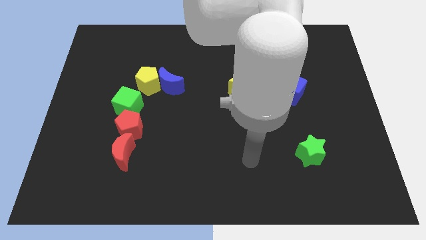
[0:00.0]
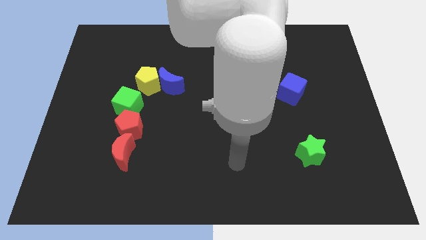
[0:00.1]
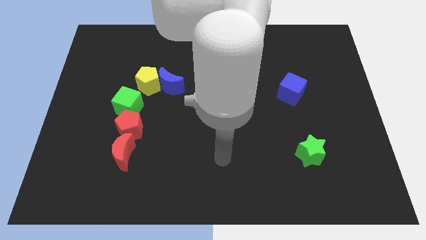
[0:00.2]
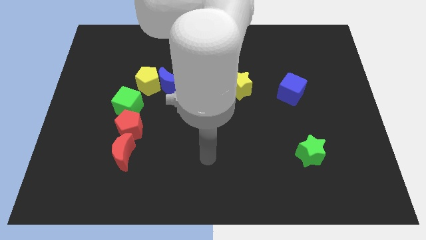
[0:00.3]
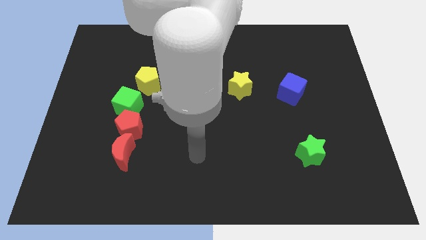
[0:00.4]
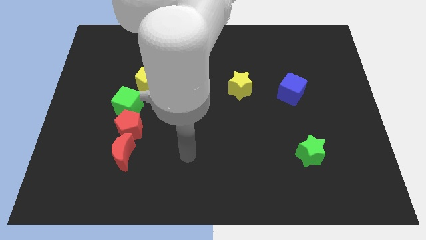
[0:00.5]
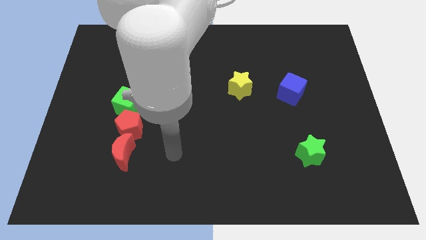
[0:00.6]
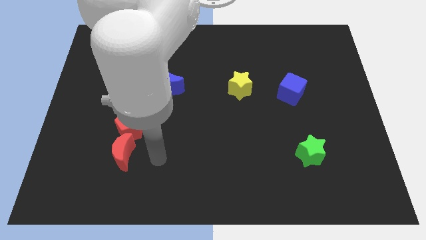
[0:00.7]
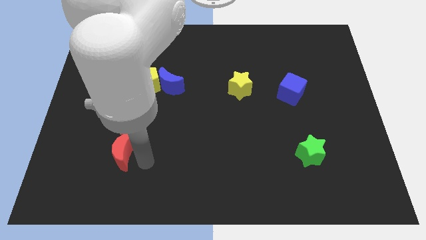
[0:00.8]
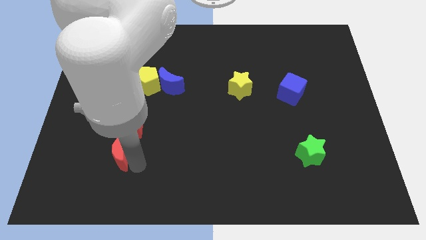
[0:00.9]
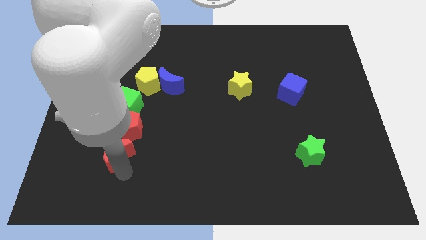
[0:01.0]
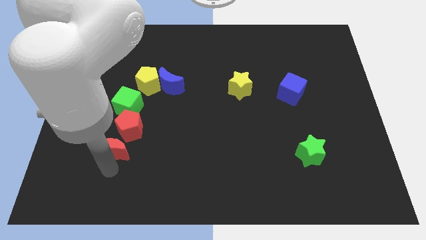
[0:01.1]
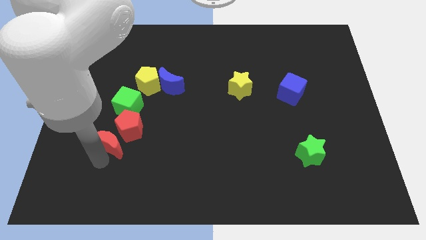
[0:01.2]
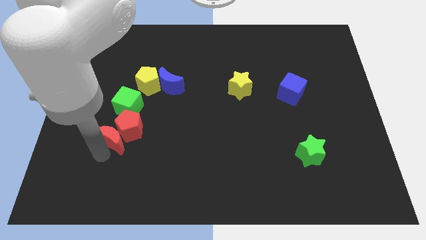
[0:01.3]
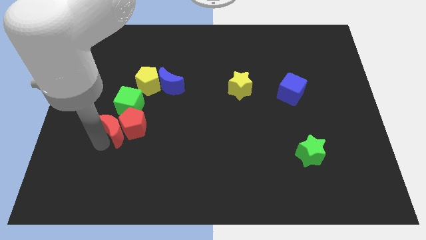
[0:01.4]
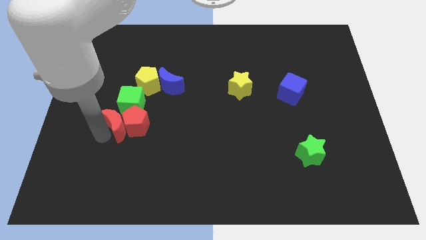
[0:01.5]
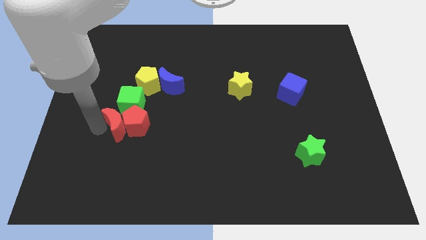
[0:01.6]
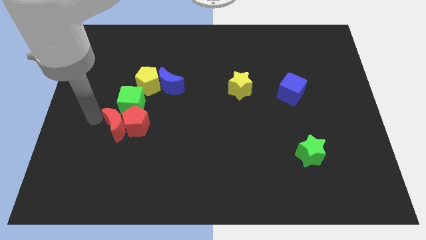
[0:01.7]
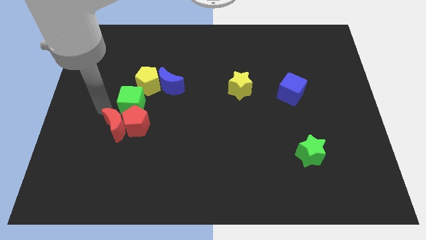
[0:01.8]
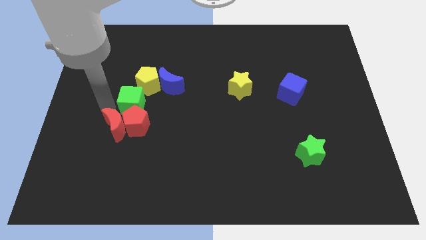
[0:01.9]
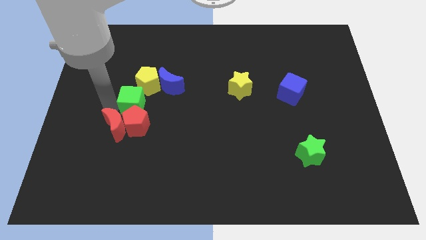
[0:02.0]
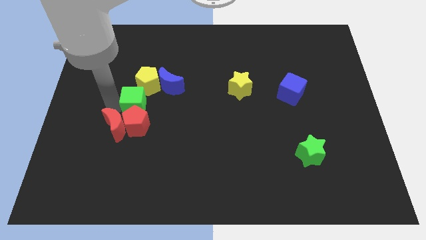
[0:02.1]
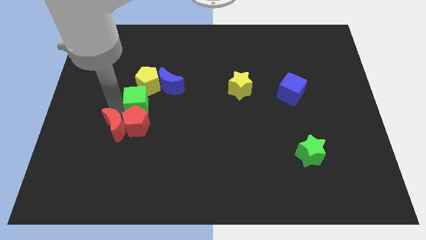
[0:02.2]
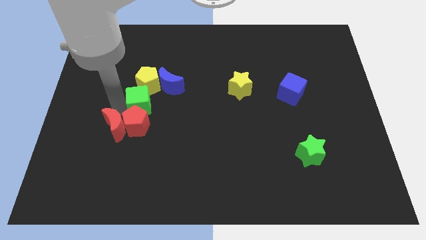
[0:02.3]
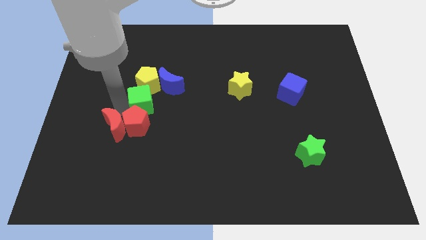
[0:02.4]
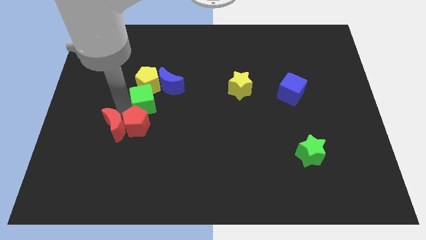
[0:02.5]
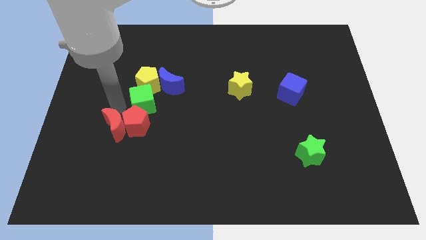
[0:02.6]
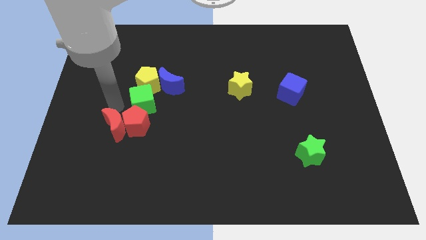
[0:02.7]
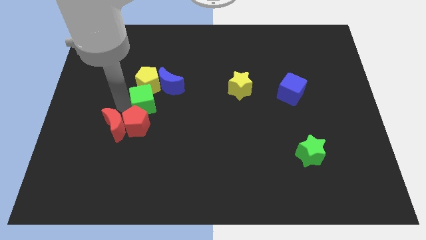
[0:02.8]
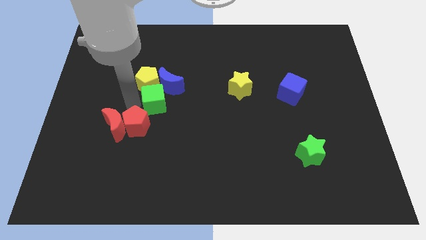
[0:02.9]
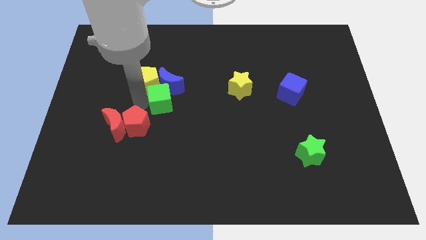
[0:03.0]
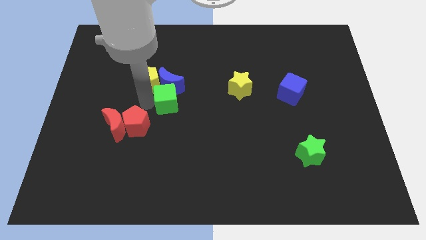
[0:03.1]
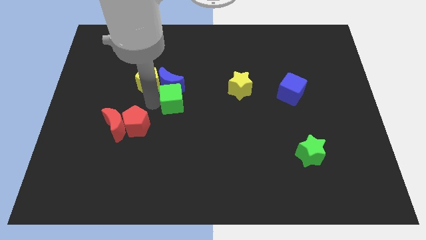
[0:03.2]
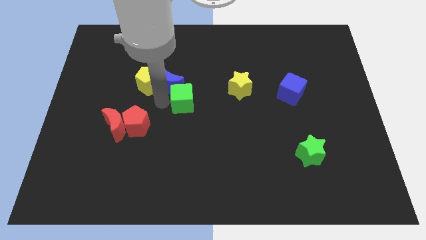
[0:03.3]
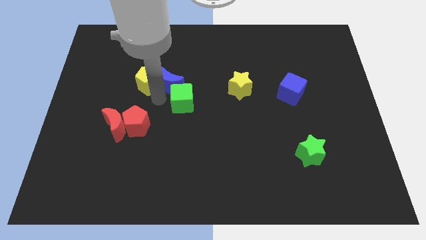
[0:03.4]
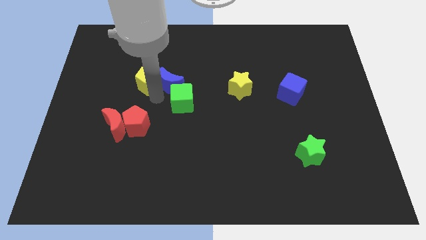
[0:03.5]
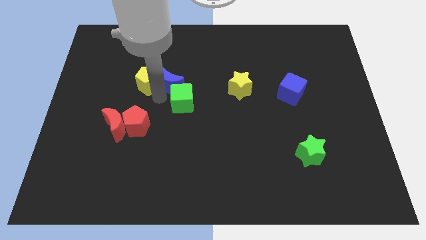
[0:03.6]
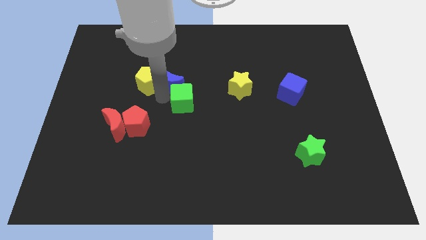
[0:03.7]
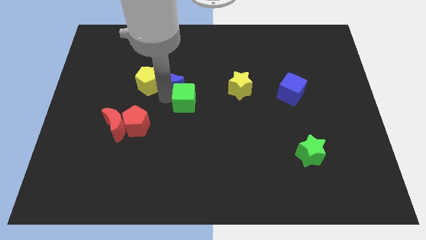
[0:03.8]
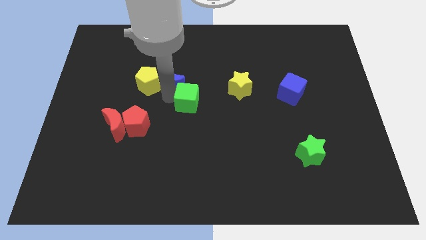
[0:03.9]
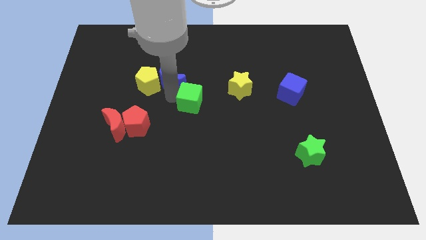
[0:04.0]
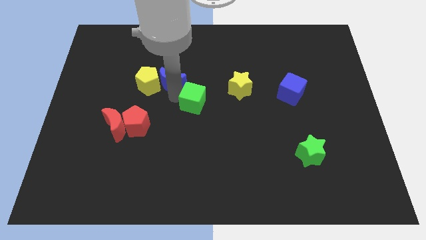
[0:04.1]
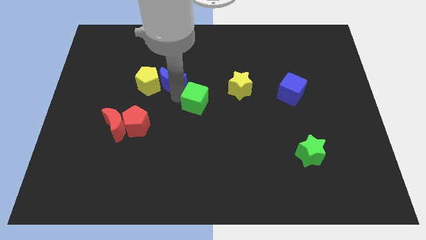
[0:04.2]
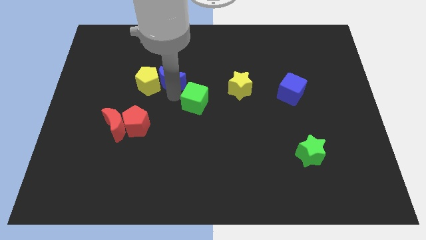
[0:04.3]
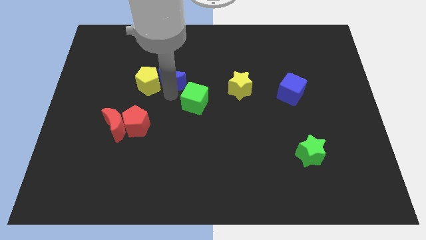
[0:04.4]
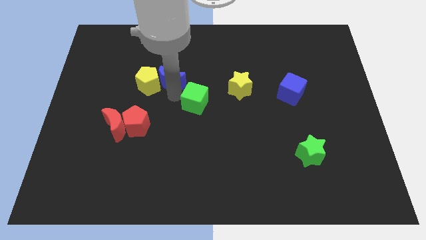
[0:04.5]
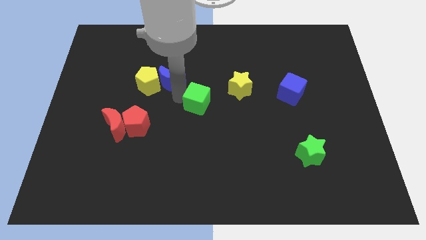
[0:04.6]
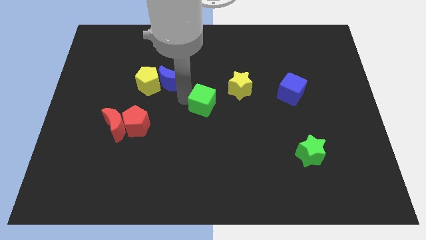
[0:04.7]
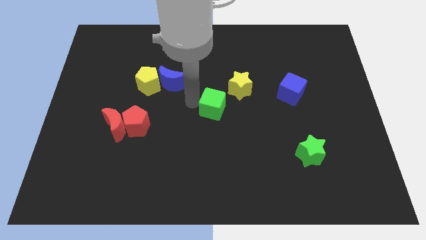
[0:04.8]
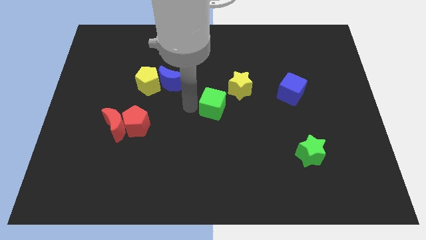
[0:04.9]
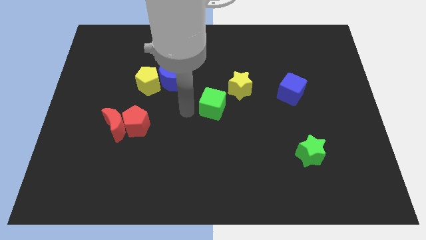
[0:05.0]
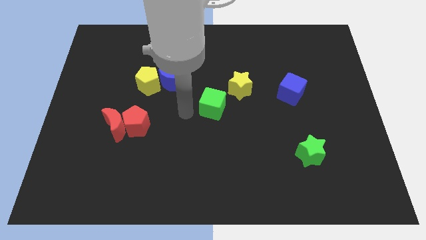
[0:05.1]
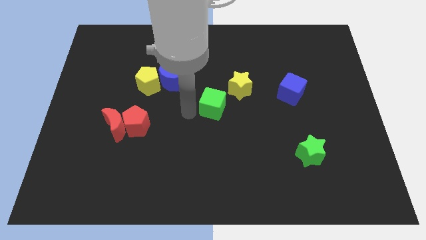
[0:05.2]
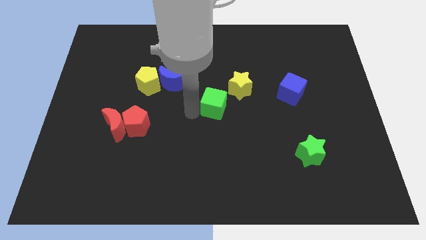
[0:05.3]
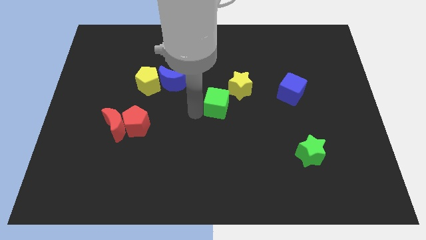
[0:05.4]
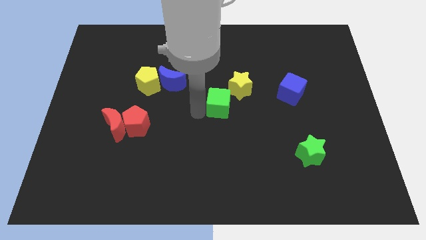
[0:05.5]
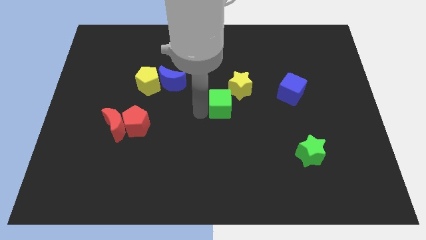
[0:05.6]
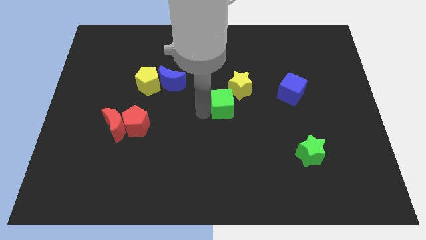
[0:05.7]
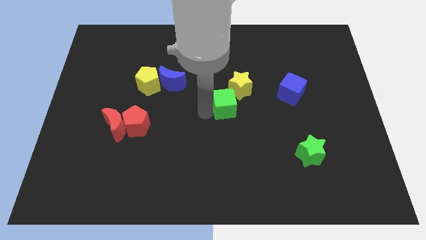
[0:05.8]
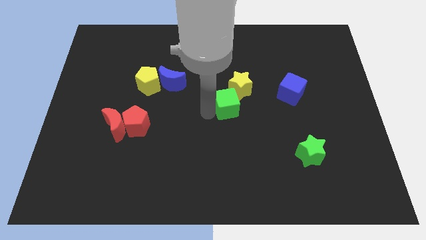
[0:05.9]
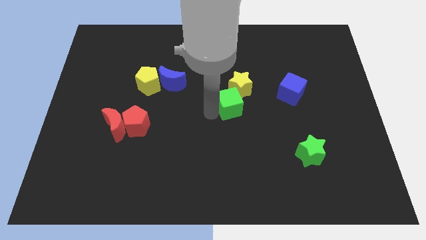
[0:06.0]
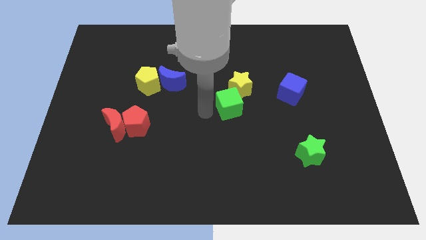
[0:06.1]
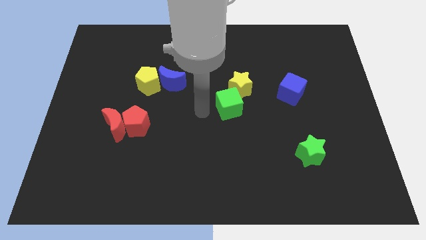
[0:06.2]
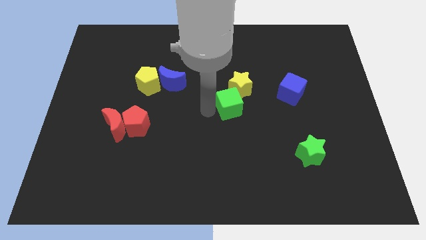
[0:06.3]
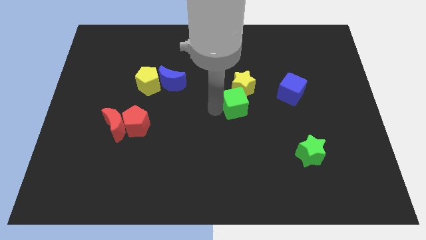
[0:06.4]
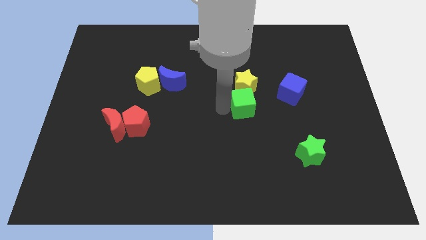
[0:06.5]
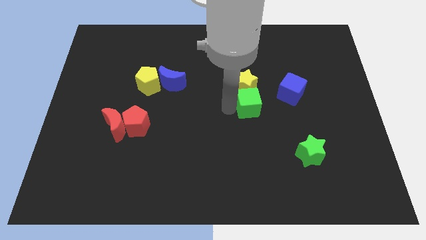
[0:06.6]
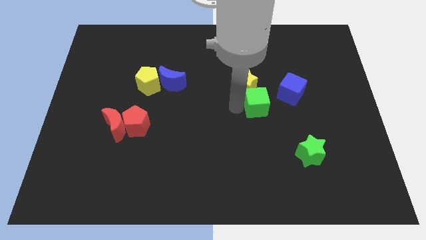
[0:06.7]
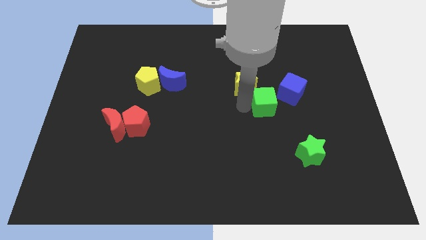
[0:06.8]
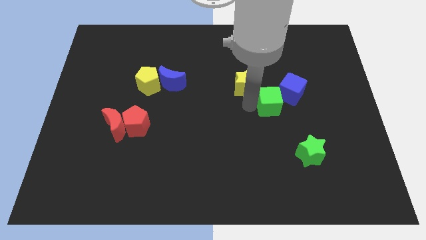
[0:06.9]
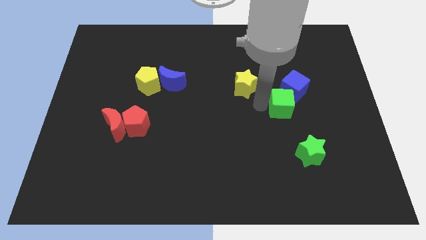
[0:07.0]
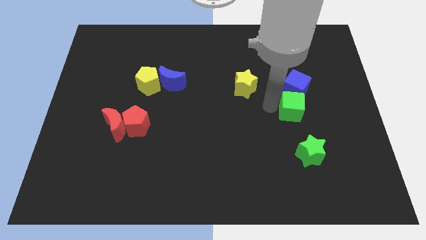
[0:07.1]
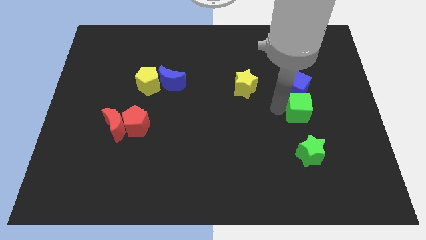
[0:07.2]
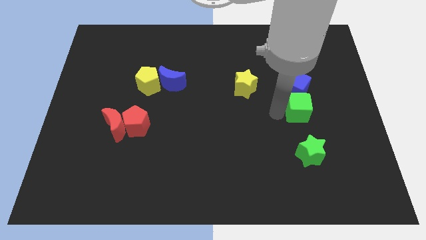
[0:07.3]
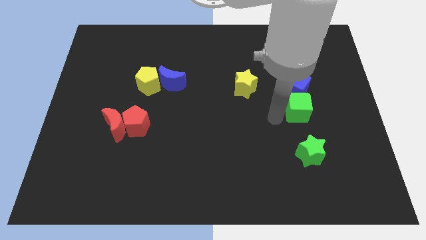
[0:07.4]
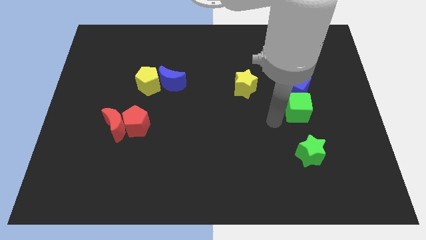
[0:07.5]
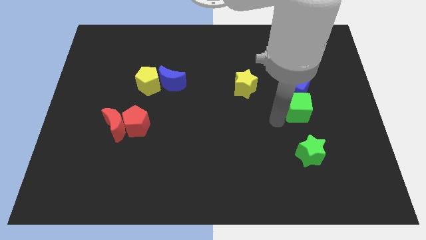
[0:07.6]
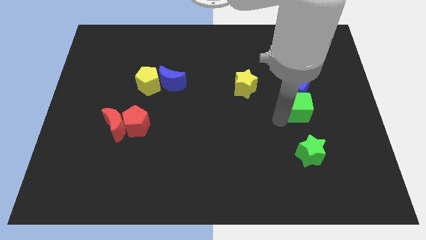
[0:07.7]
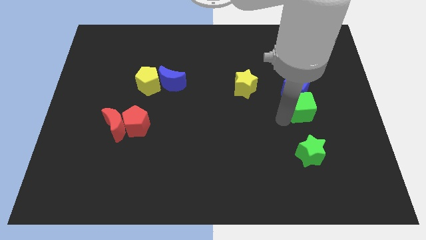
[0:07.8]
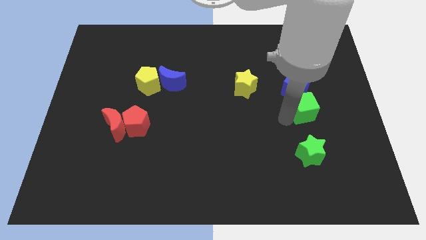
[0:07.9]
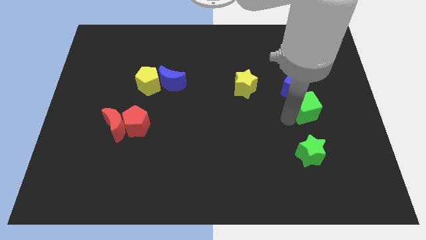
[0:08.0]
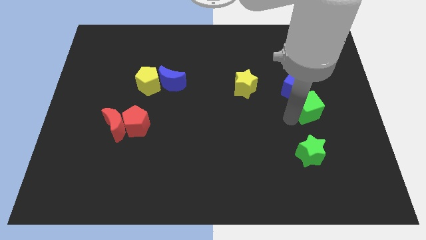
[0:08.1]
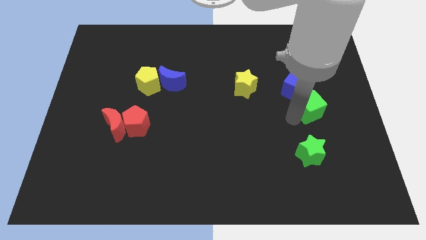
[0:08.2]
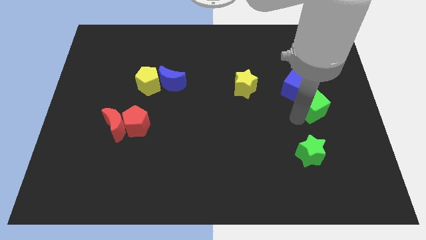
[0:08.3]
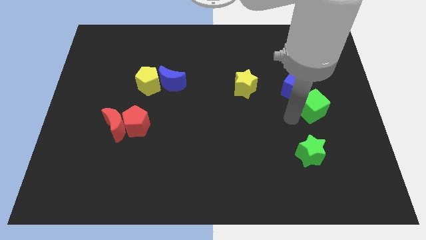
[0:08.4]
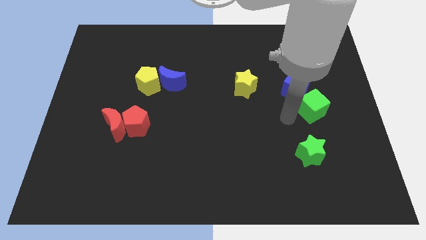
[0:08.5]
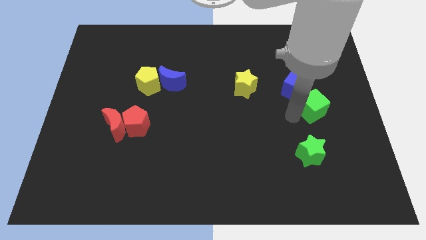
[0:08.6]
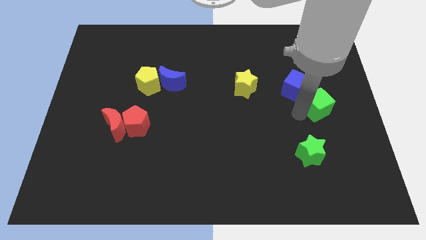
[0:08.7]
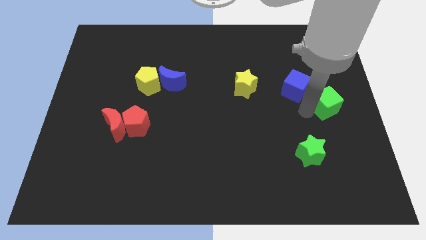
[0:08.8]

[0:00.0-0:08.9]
move the green cube to the center right
